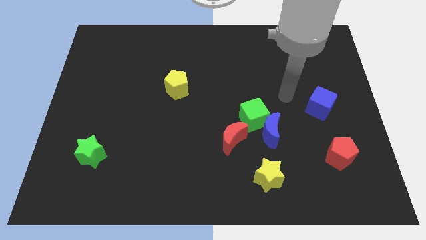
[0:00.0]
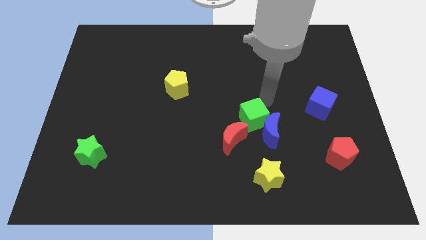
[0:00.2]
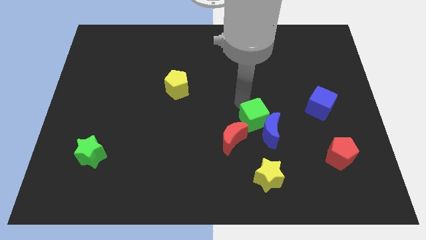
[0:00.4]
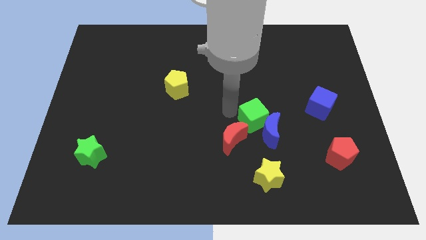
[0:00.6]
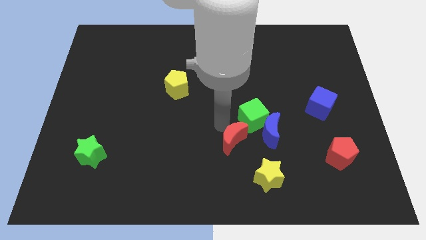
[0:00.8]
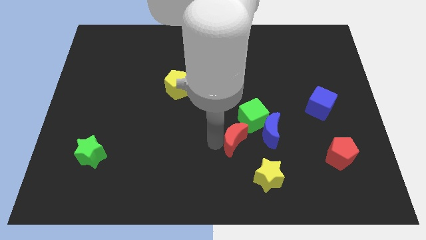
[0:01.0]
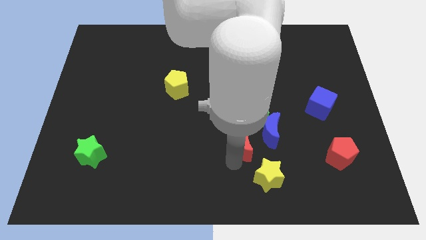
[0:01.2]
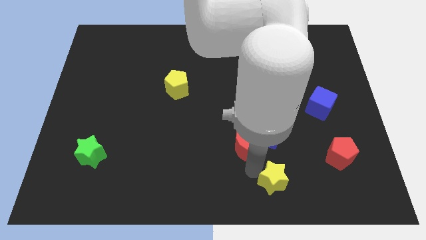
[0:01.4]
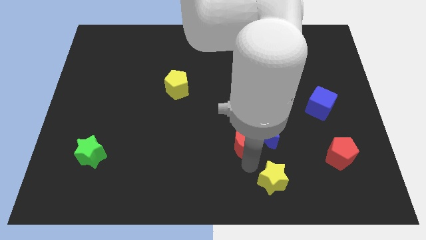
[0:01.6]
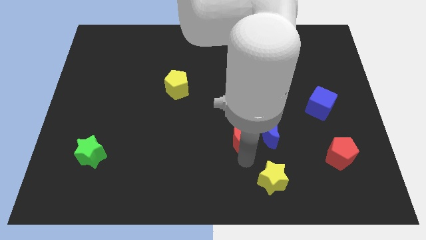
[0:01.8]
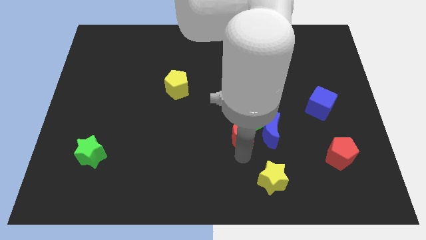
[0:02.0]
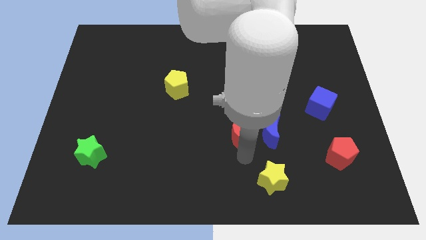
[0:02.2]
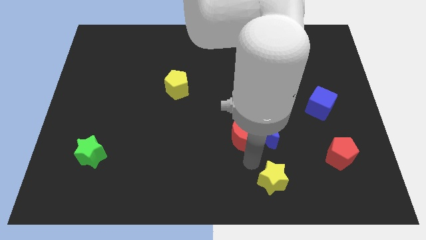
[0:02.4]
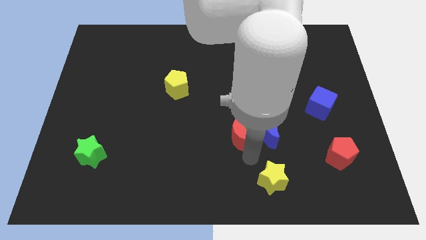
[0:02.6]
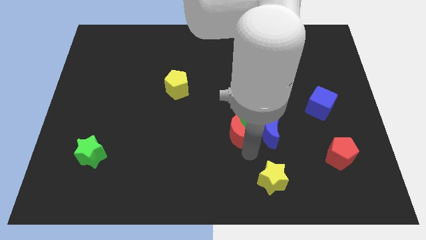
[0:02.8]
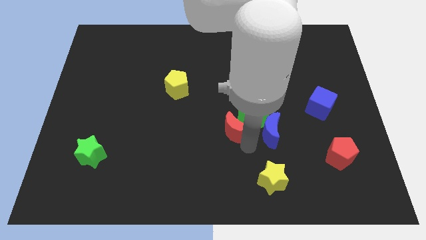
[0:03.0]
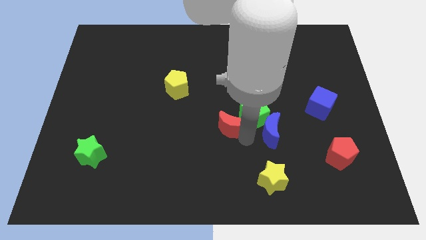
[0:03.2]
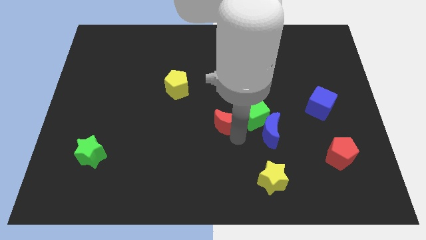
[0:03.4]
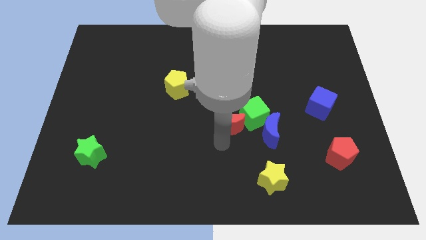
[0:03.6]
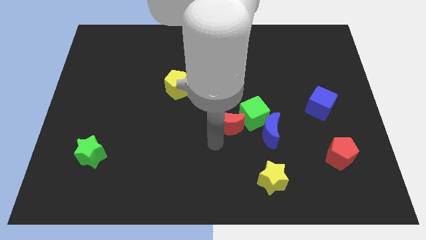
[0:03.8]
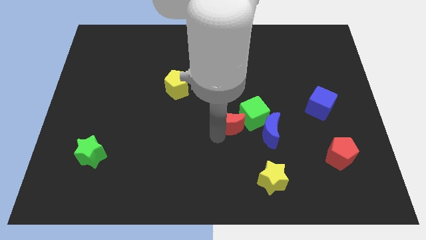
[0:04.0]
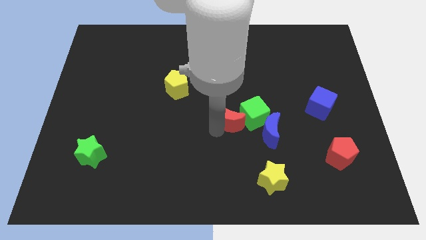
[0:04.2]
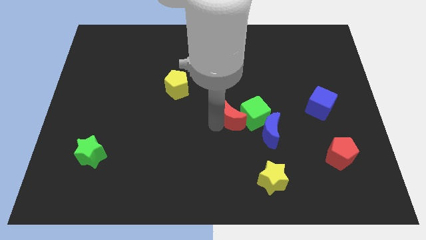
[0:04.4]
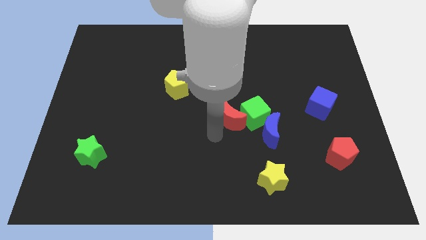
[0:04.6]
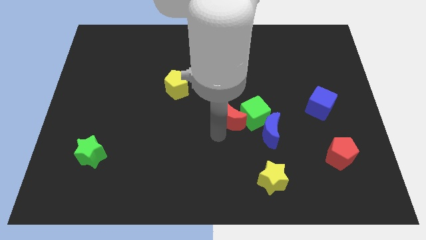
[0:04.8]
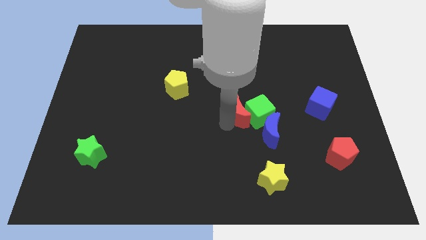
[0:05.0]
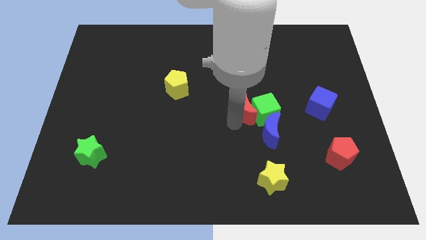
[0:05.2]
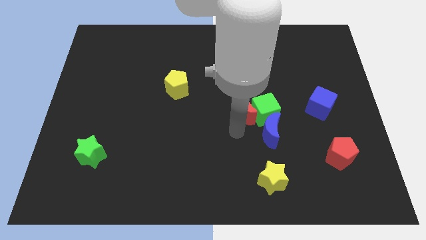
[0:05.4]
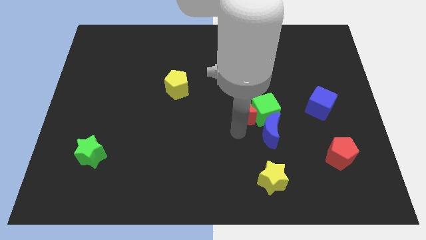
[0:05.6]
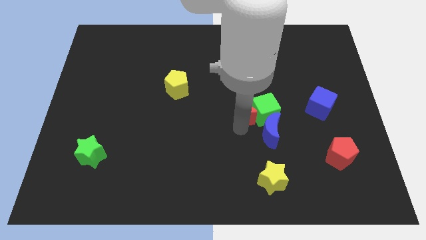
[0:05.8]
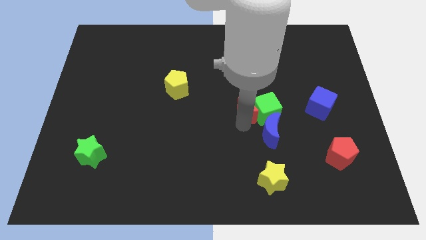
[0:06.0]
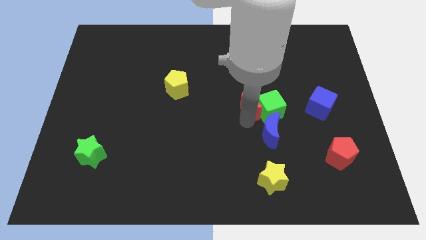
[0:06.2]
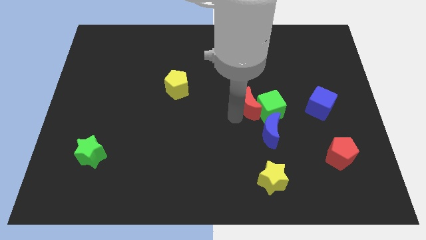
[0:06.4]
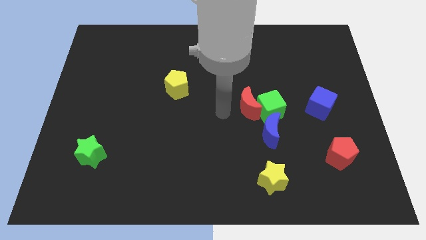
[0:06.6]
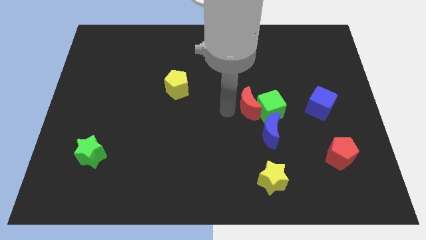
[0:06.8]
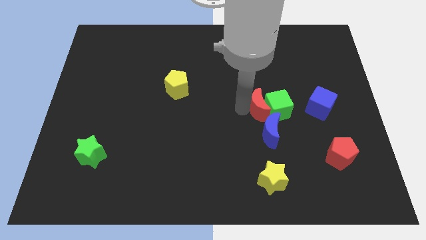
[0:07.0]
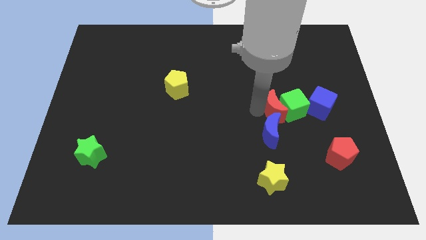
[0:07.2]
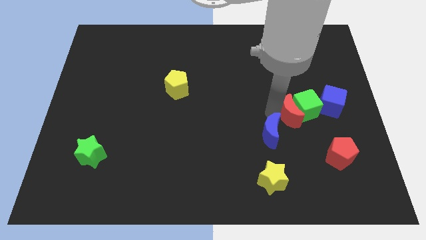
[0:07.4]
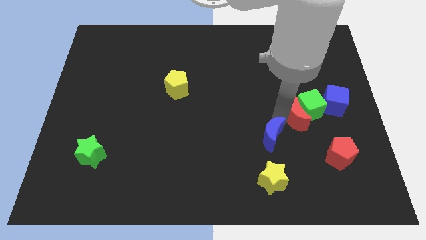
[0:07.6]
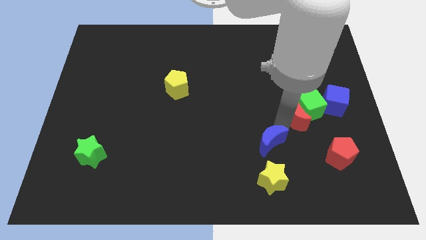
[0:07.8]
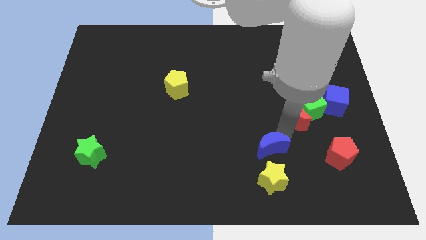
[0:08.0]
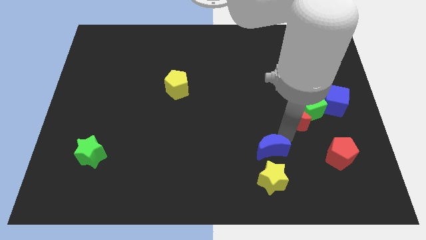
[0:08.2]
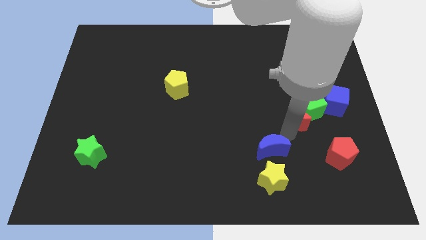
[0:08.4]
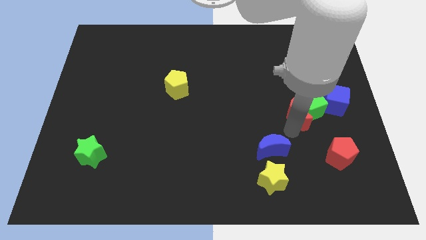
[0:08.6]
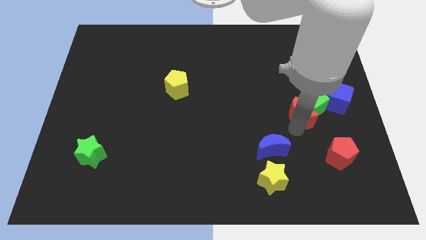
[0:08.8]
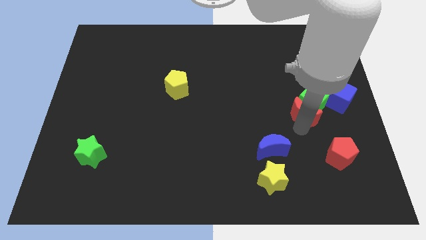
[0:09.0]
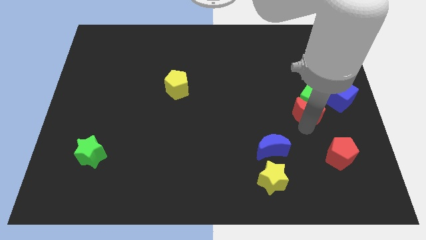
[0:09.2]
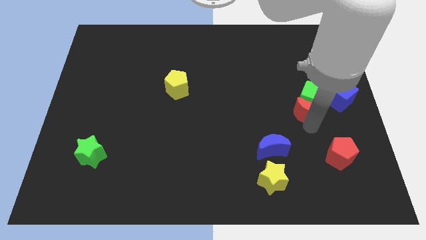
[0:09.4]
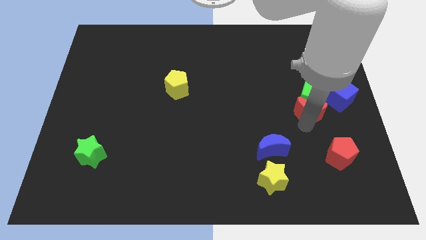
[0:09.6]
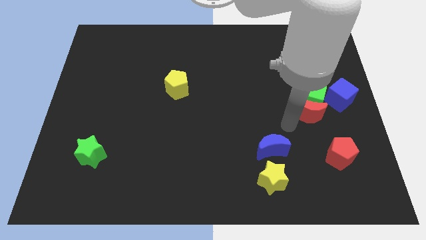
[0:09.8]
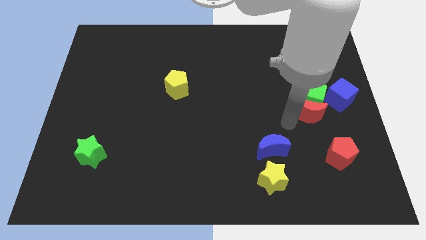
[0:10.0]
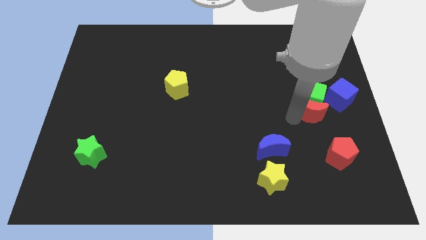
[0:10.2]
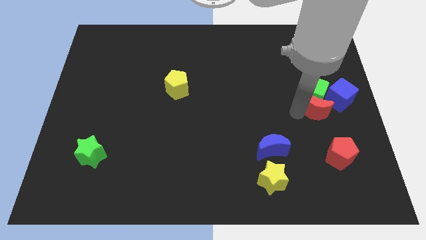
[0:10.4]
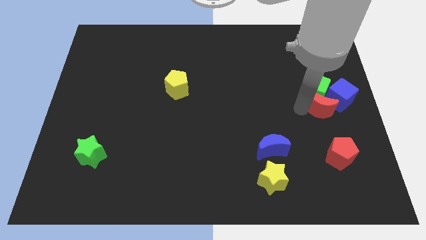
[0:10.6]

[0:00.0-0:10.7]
push the red moon towards the blue cube

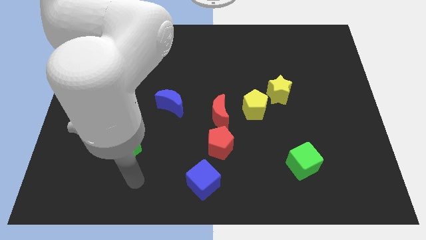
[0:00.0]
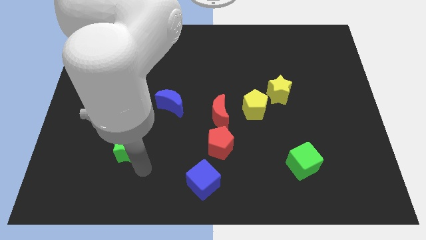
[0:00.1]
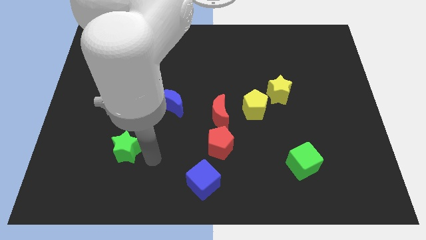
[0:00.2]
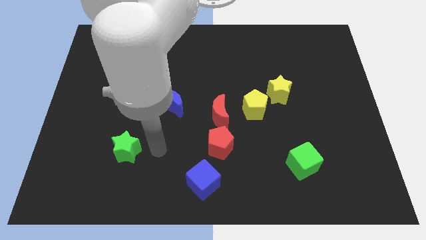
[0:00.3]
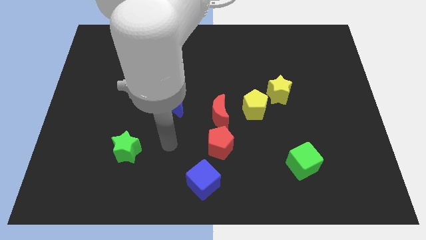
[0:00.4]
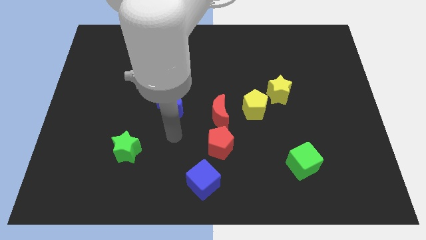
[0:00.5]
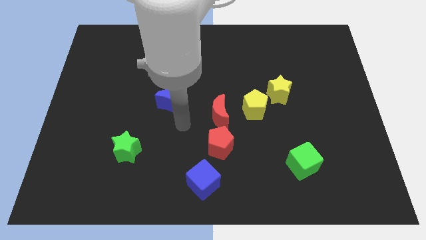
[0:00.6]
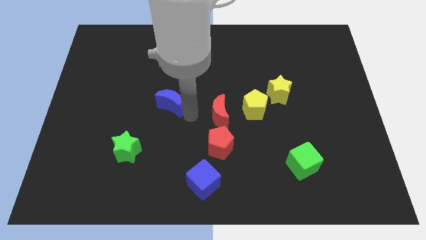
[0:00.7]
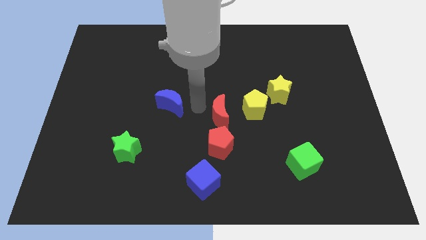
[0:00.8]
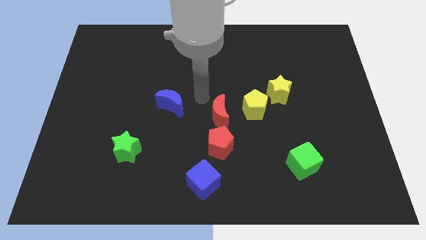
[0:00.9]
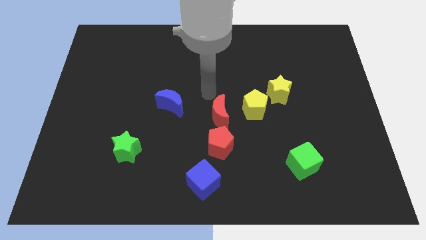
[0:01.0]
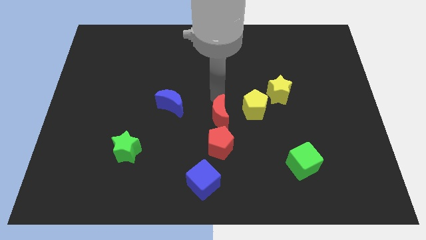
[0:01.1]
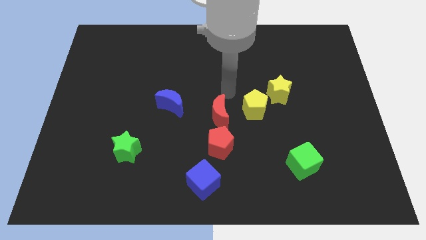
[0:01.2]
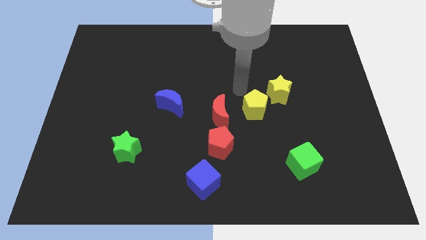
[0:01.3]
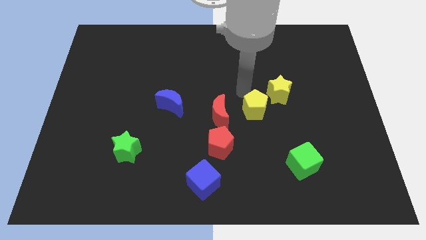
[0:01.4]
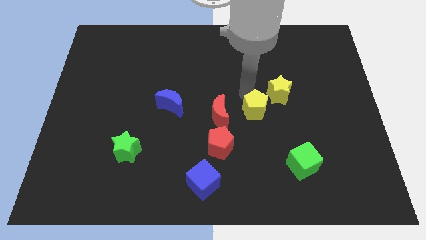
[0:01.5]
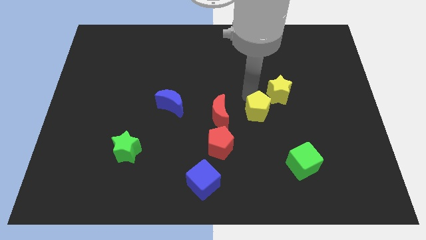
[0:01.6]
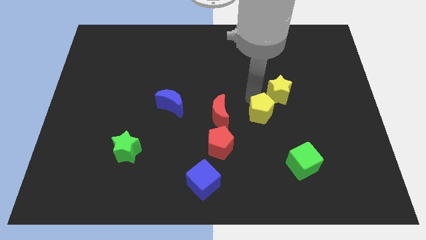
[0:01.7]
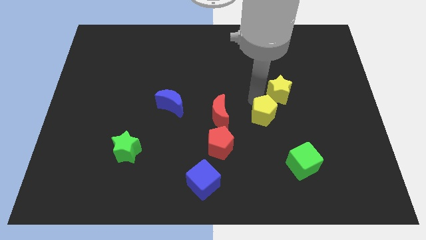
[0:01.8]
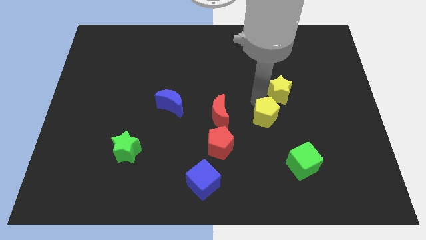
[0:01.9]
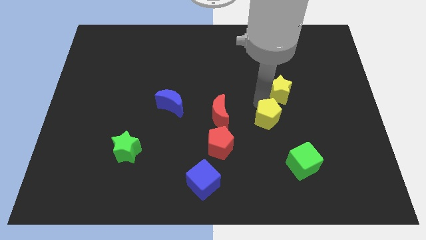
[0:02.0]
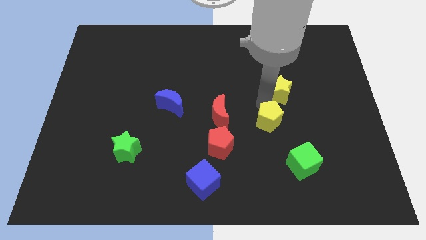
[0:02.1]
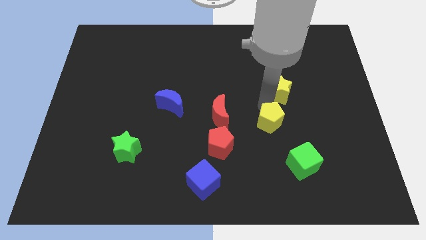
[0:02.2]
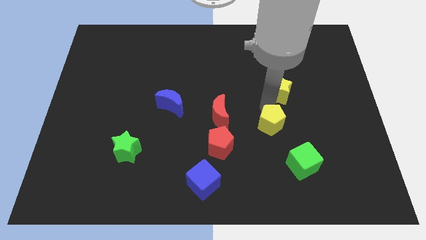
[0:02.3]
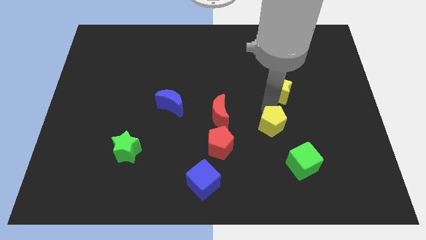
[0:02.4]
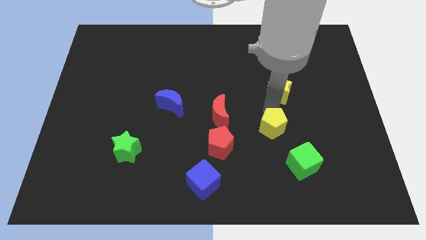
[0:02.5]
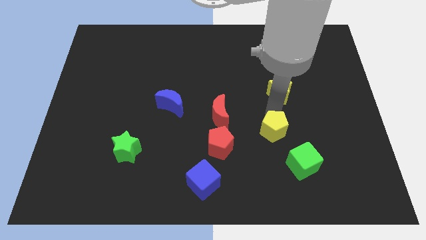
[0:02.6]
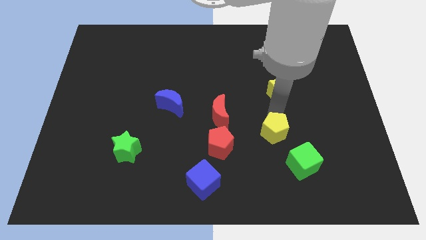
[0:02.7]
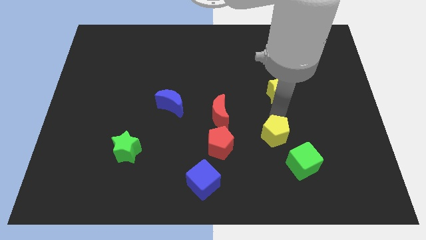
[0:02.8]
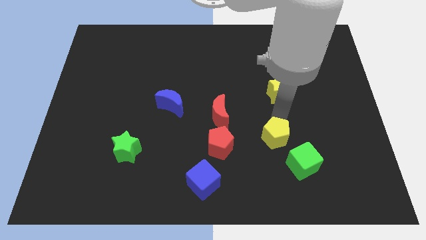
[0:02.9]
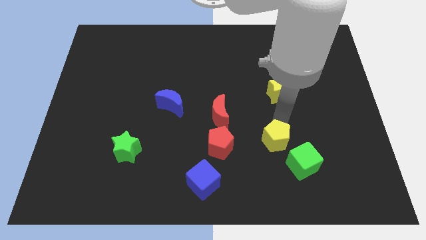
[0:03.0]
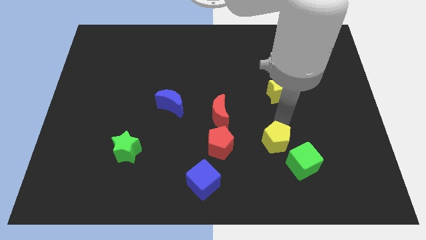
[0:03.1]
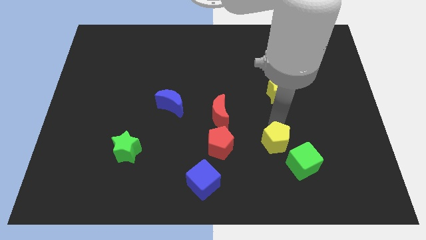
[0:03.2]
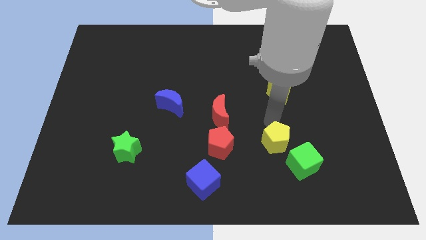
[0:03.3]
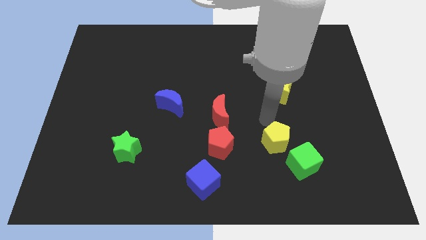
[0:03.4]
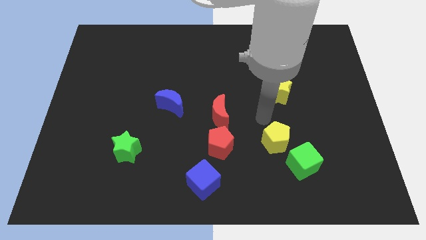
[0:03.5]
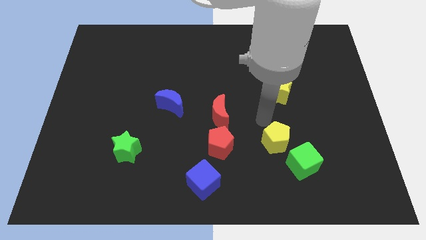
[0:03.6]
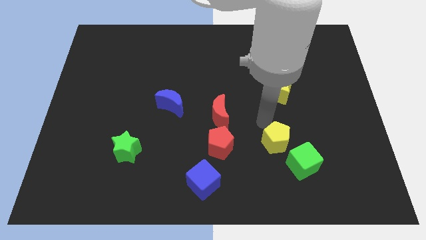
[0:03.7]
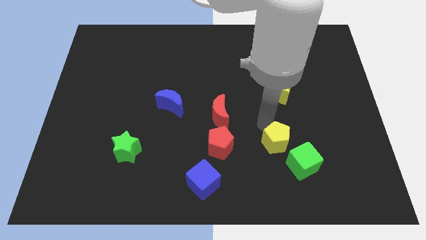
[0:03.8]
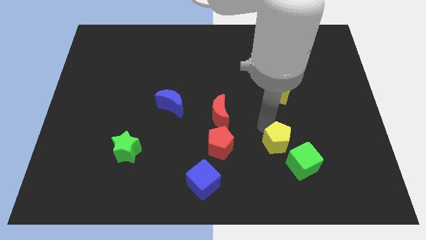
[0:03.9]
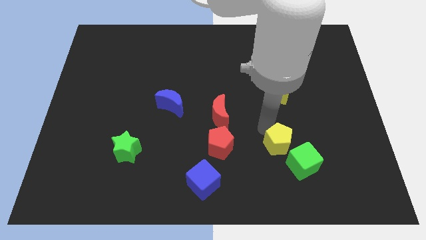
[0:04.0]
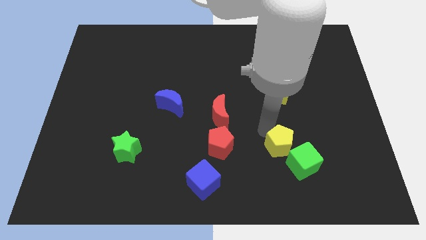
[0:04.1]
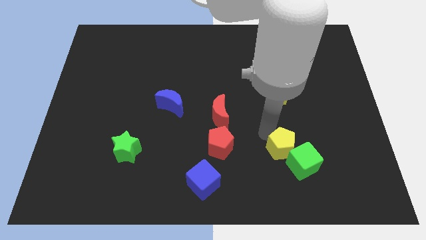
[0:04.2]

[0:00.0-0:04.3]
move the yellow pentagon next to the green cube
